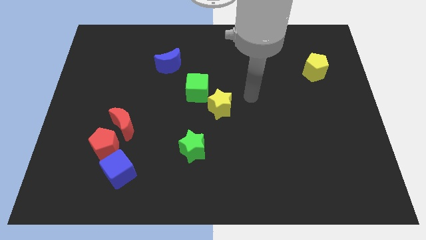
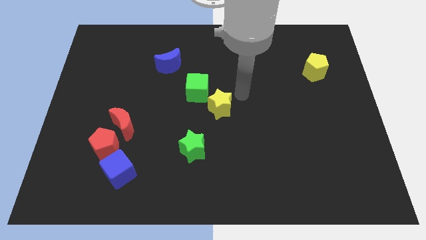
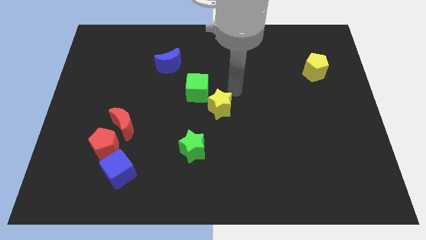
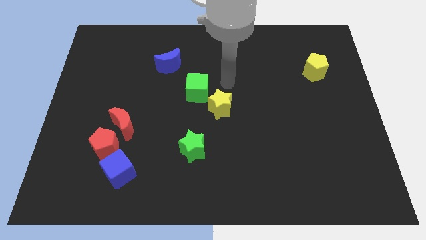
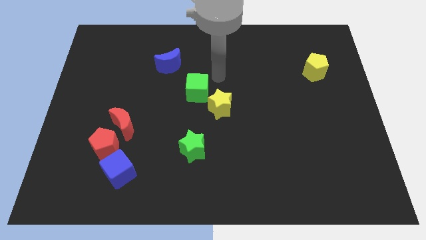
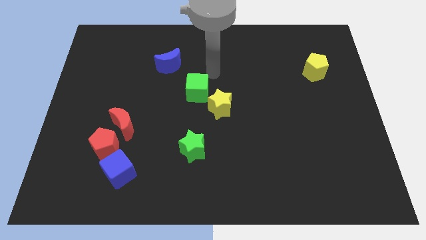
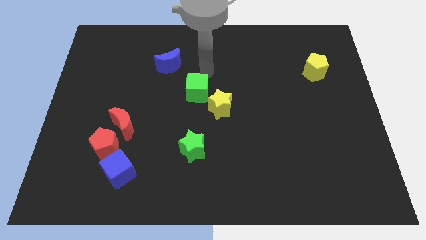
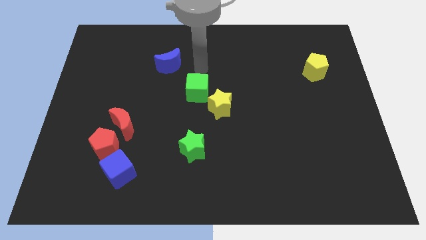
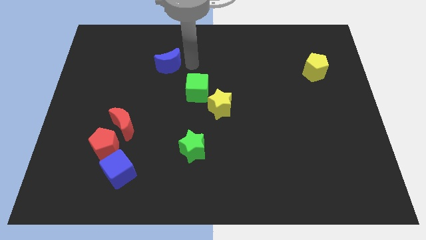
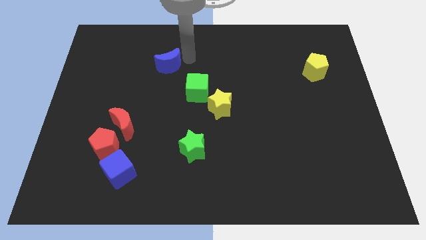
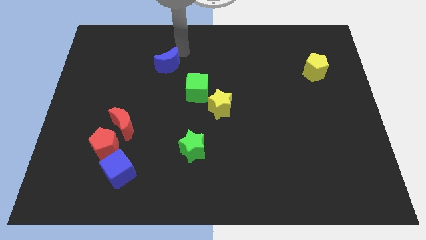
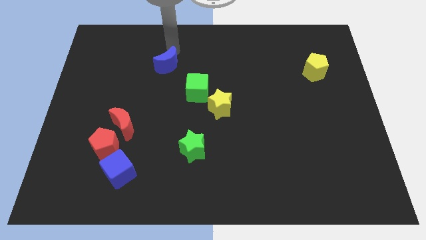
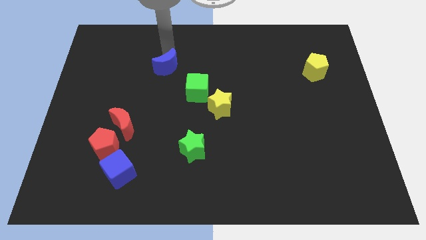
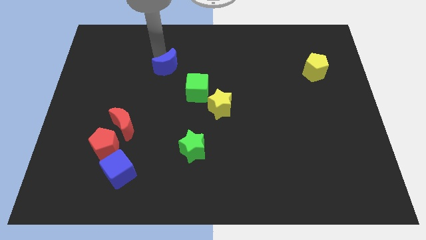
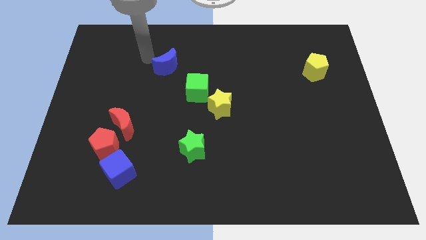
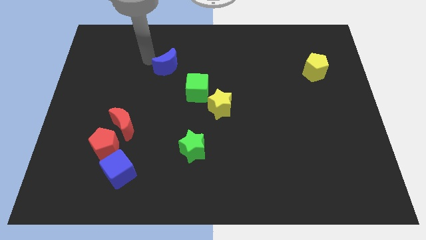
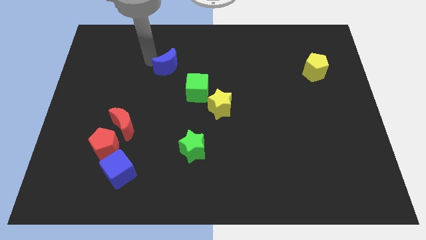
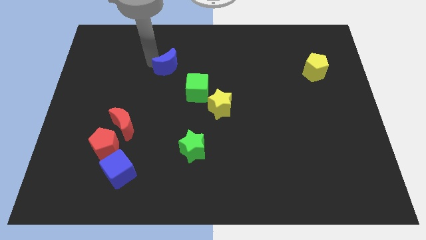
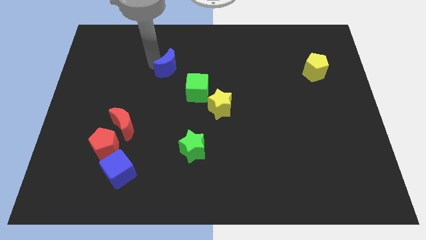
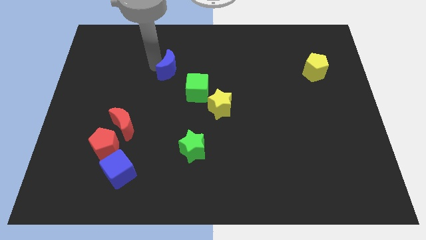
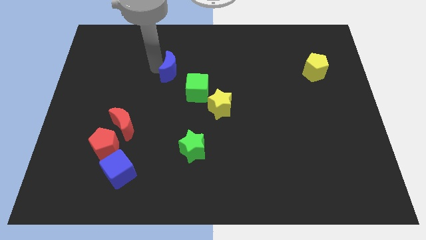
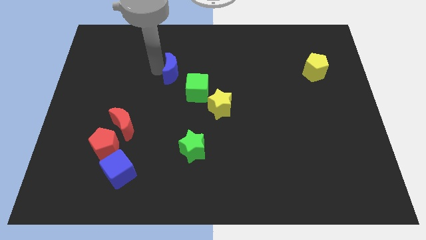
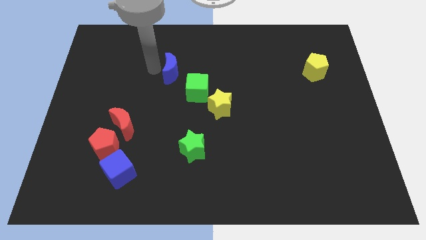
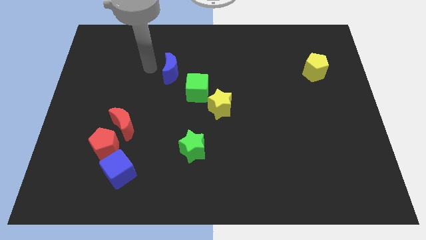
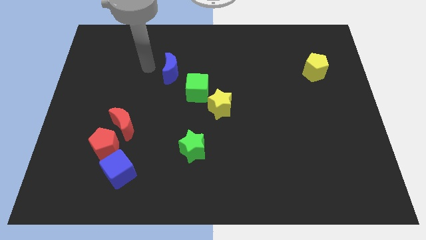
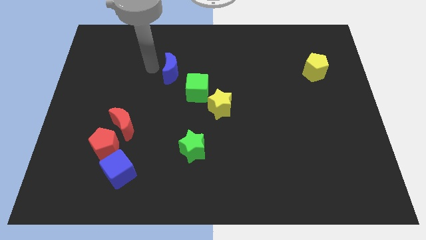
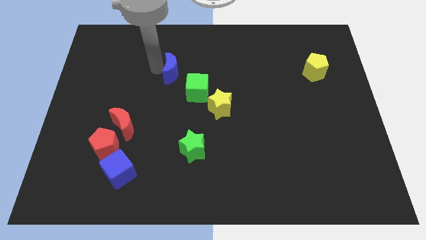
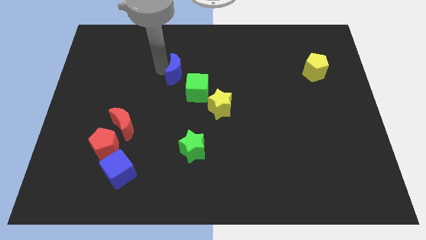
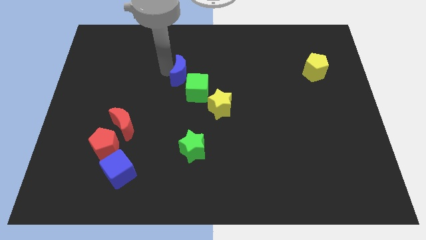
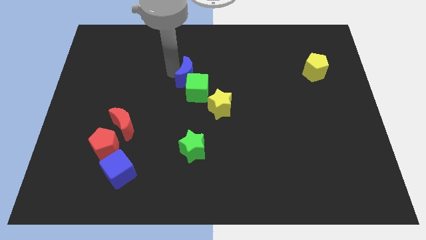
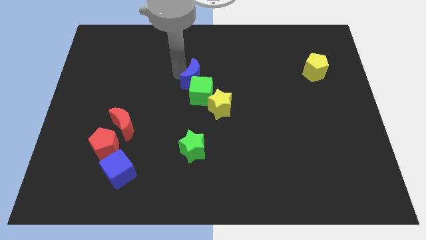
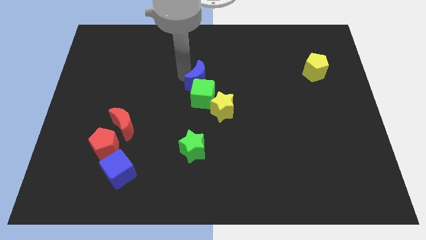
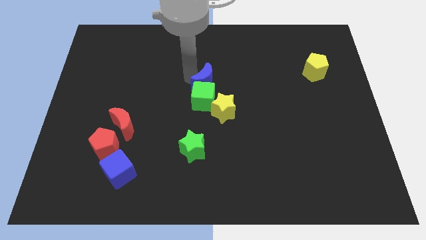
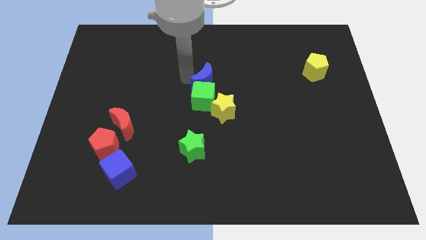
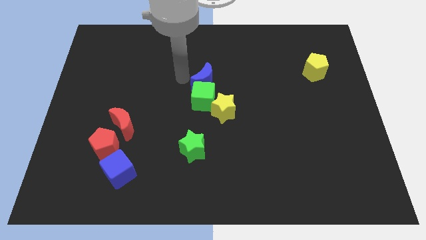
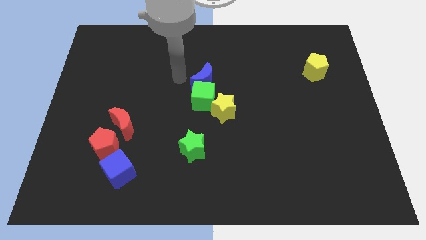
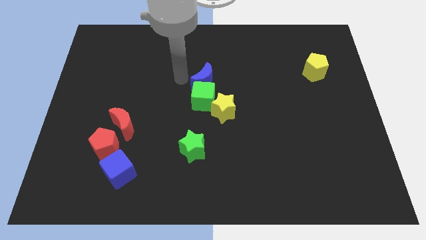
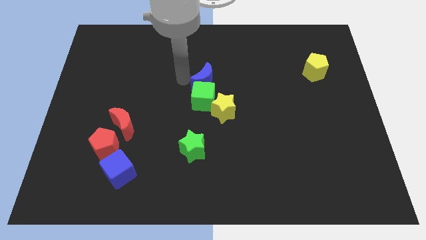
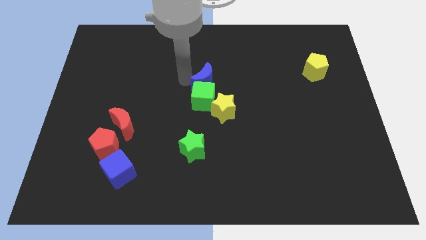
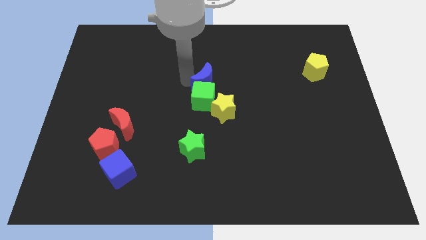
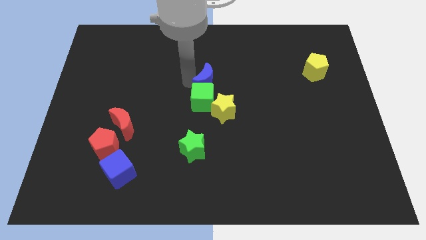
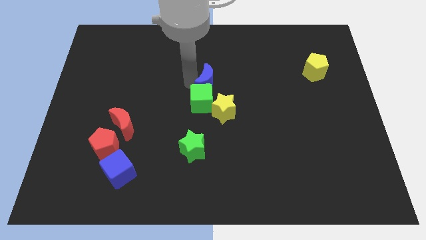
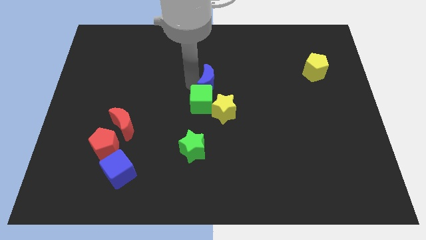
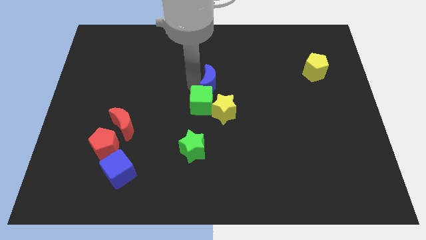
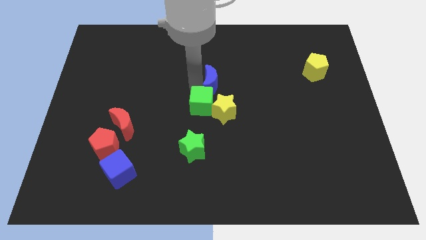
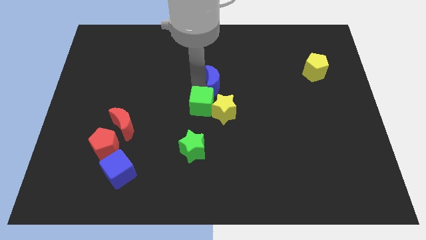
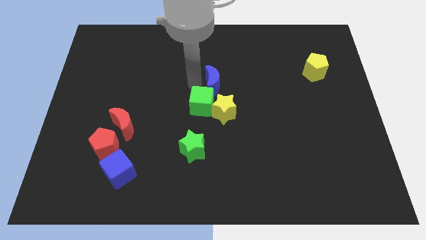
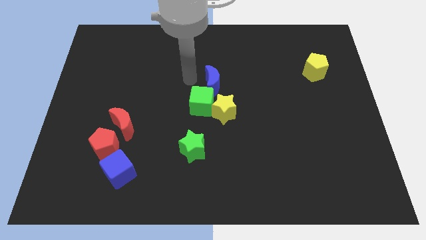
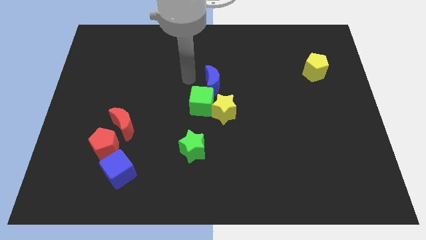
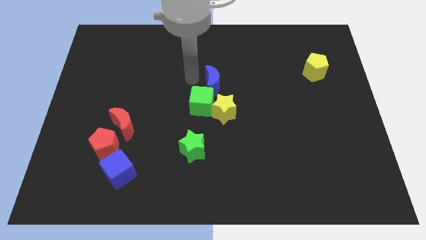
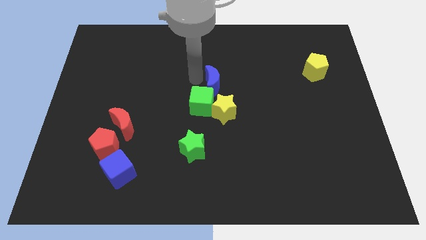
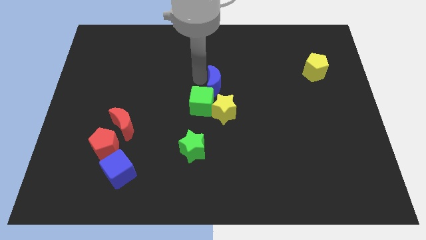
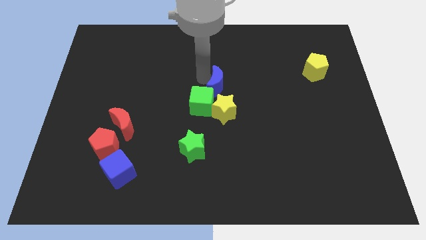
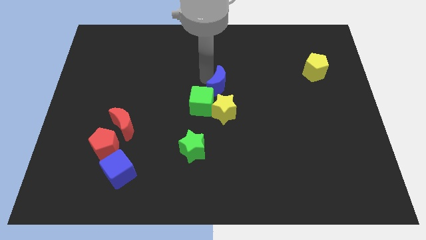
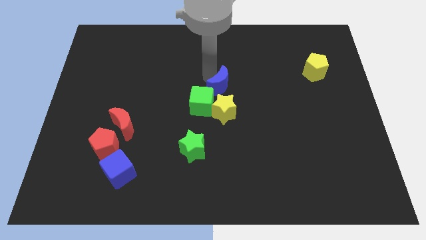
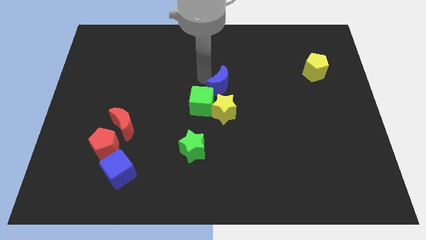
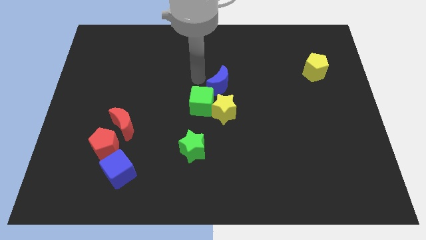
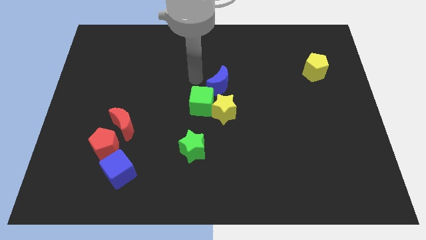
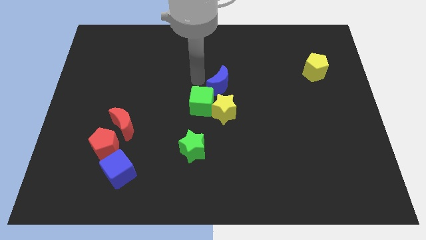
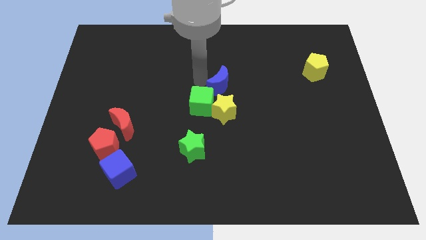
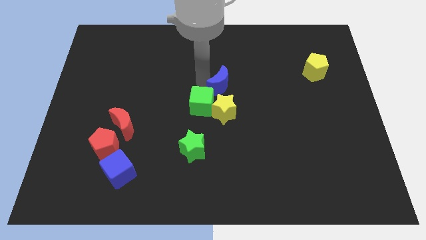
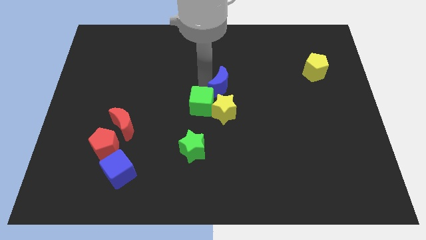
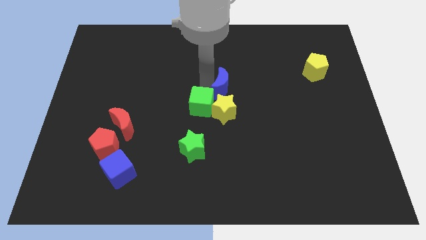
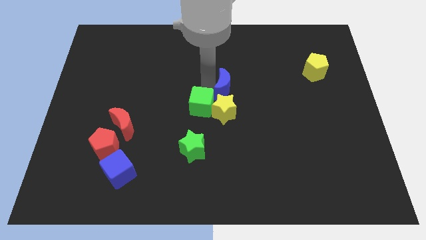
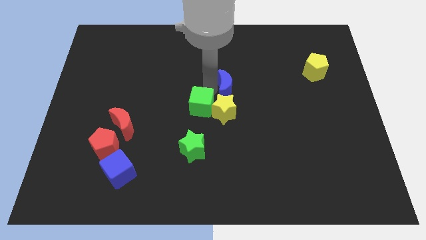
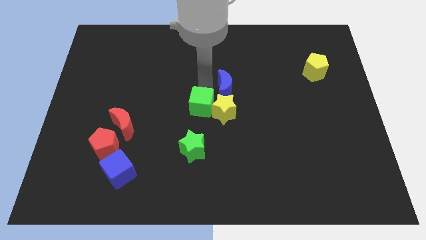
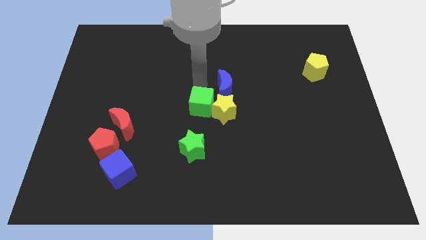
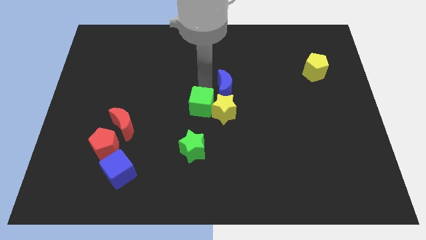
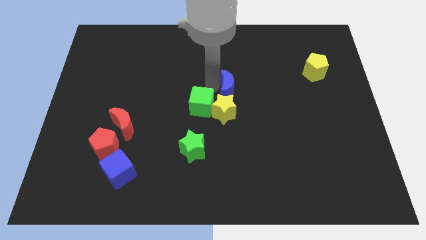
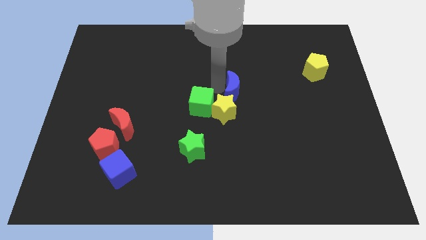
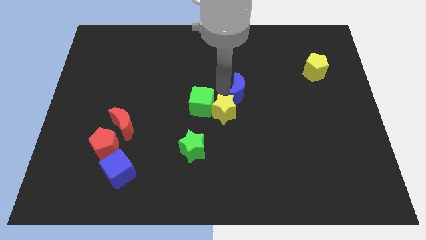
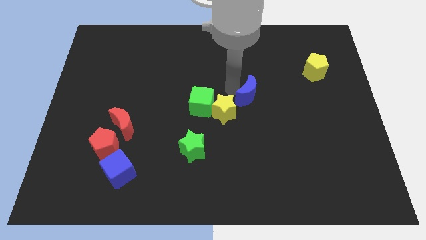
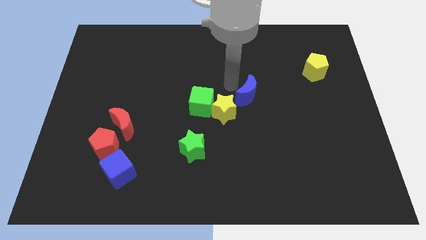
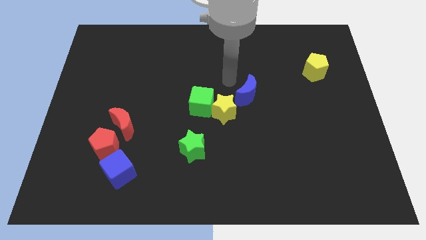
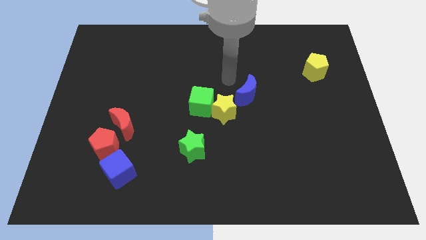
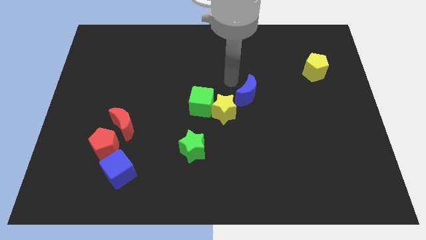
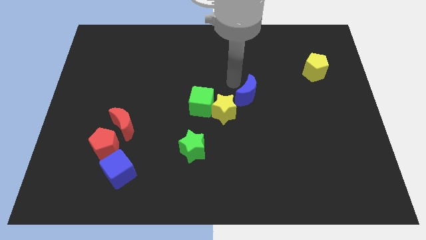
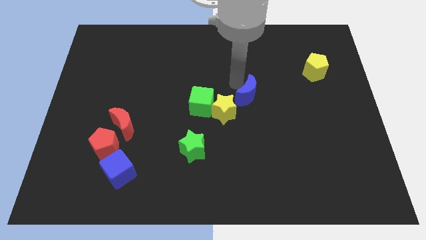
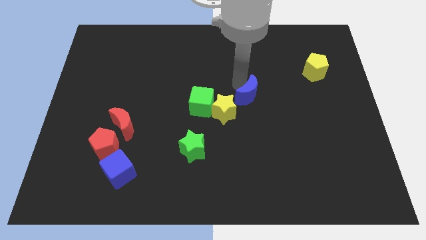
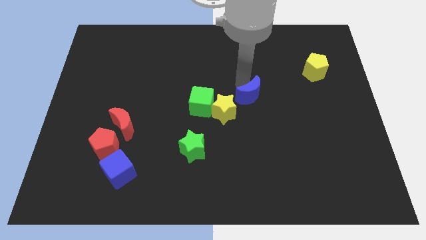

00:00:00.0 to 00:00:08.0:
slide the blue moon right of the yellow star
